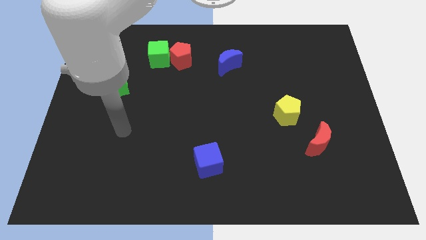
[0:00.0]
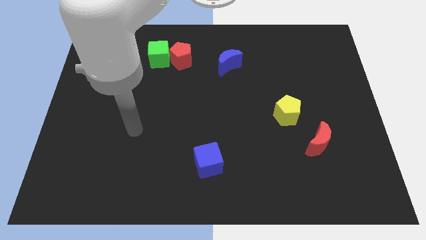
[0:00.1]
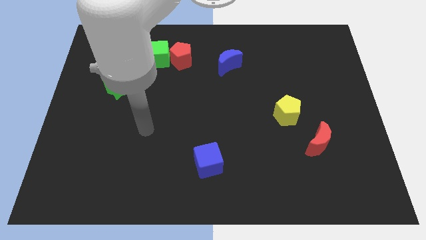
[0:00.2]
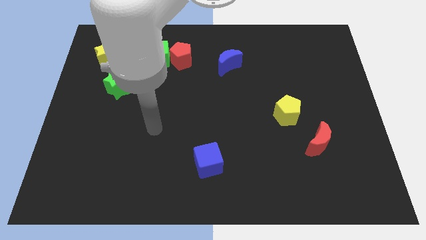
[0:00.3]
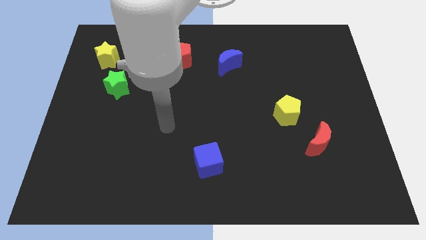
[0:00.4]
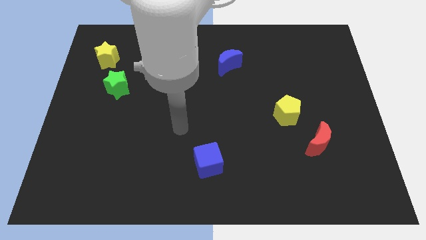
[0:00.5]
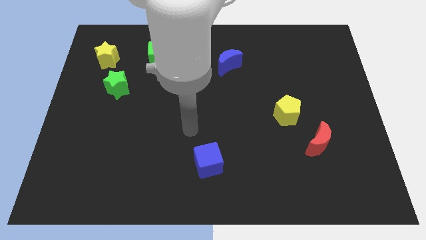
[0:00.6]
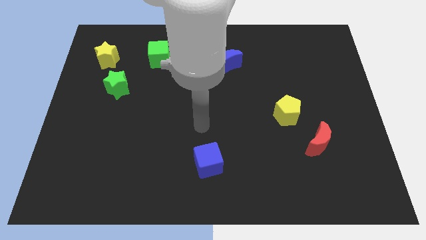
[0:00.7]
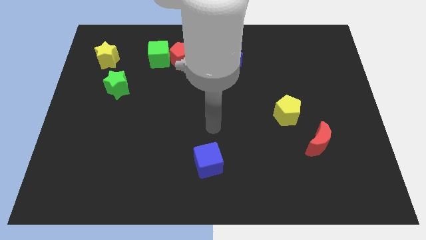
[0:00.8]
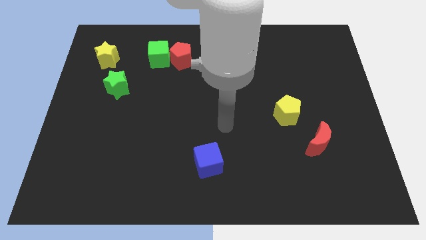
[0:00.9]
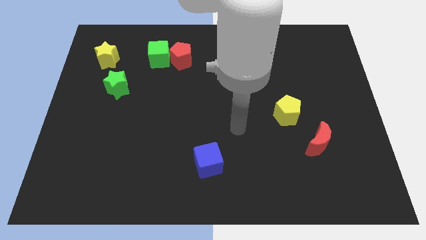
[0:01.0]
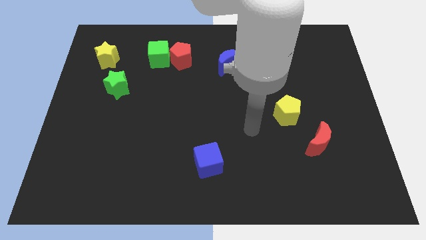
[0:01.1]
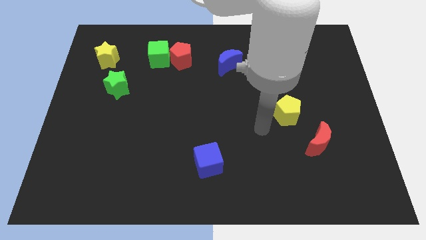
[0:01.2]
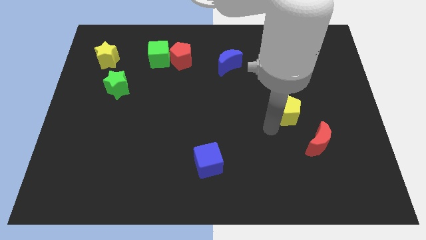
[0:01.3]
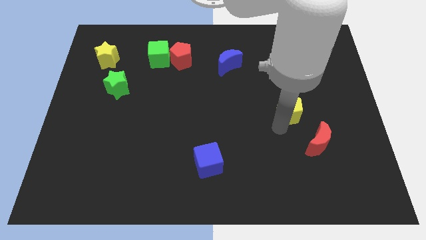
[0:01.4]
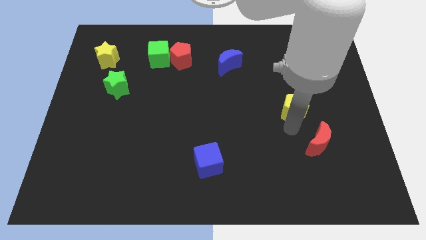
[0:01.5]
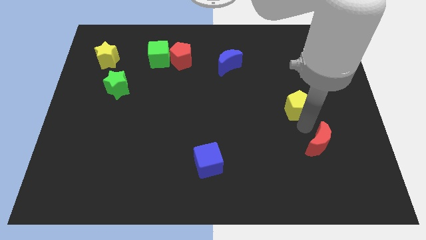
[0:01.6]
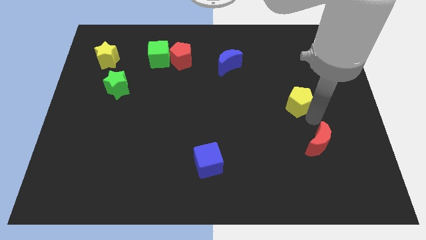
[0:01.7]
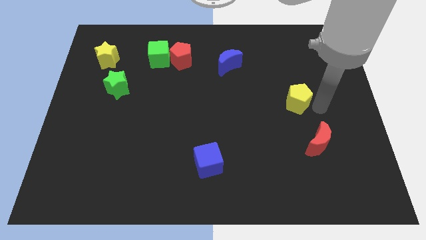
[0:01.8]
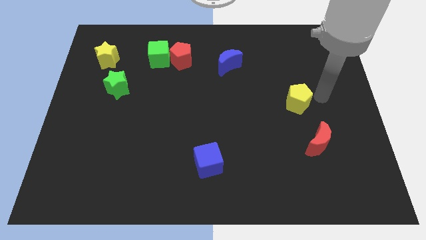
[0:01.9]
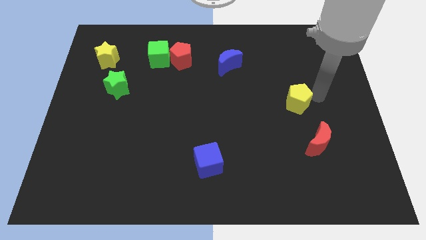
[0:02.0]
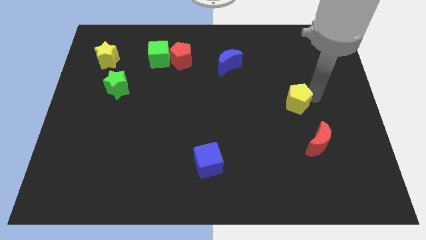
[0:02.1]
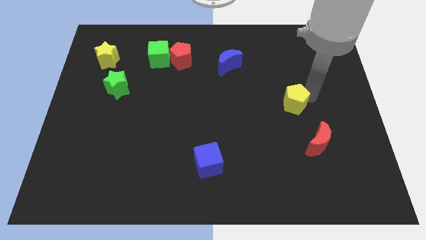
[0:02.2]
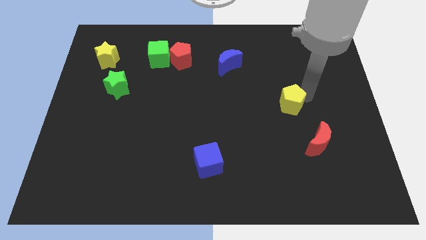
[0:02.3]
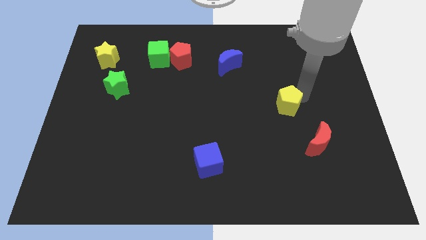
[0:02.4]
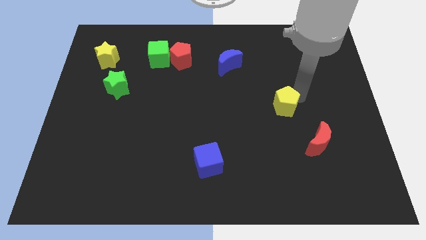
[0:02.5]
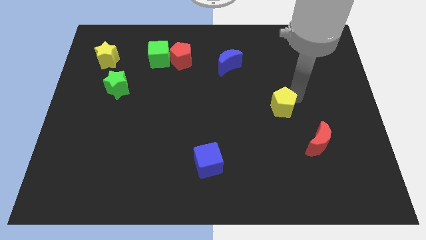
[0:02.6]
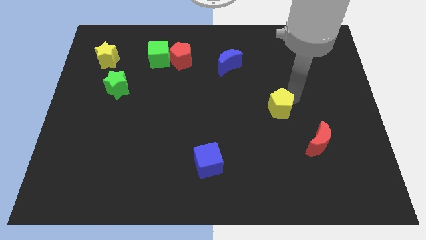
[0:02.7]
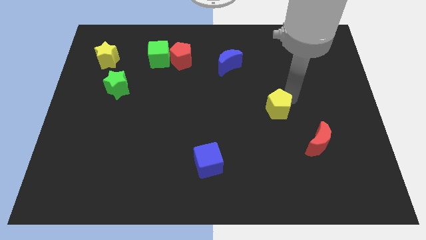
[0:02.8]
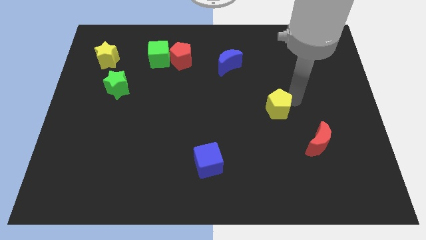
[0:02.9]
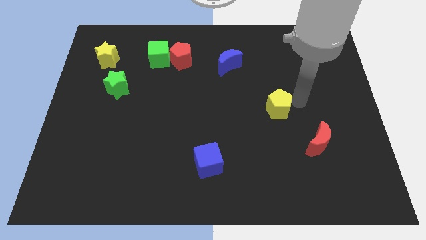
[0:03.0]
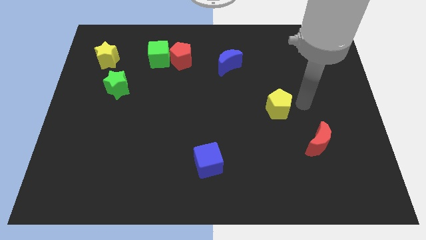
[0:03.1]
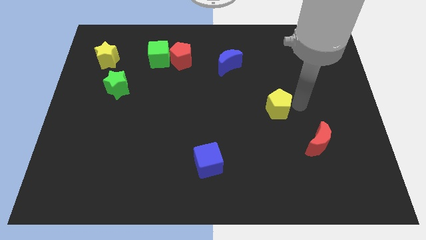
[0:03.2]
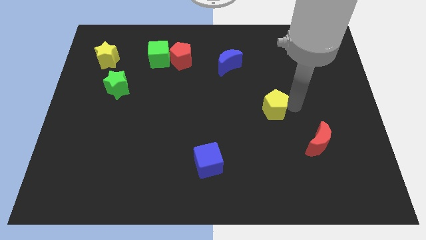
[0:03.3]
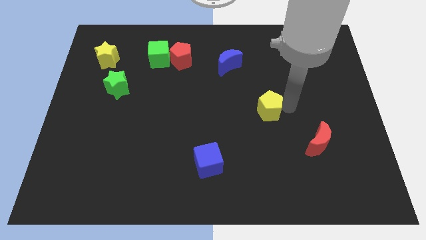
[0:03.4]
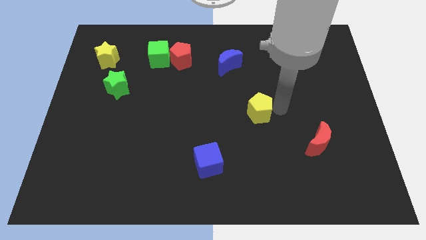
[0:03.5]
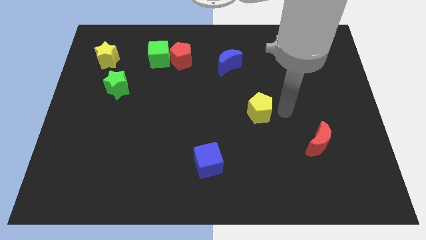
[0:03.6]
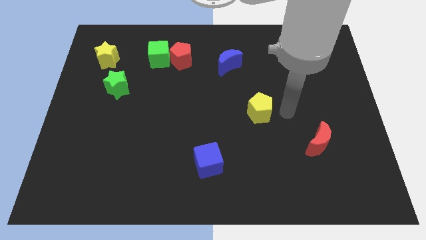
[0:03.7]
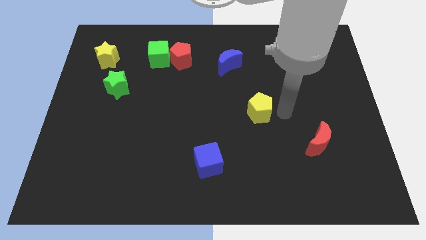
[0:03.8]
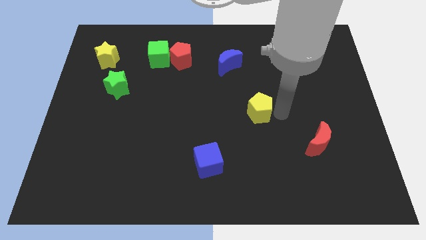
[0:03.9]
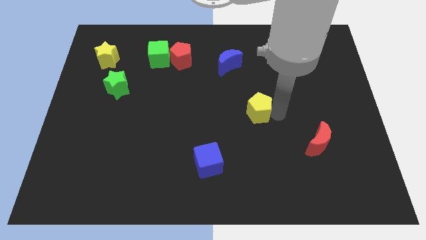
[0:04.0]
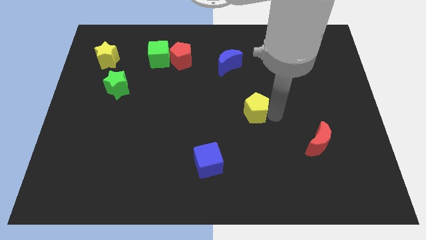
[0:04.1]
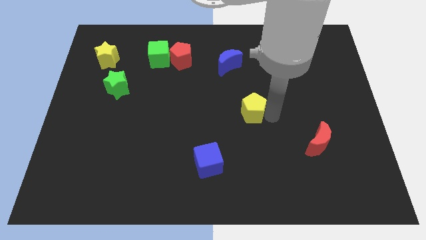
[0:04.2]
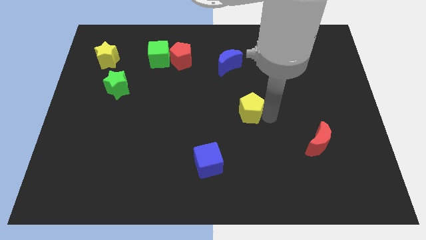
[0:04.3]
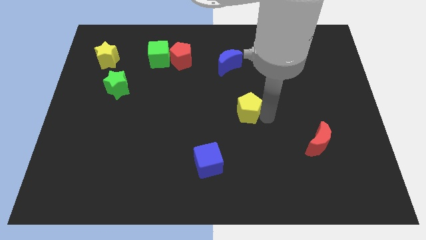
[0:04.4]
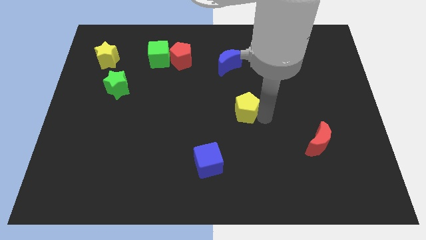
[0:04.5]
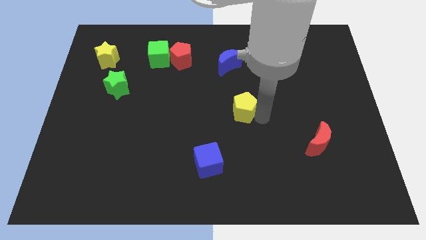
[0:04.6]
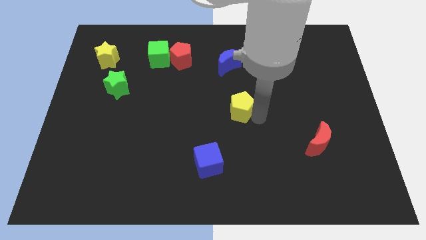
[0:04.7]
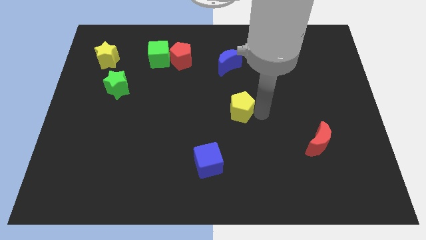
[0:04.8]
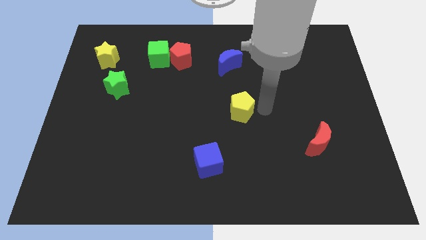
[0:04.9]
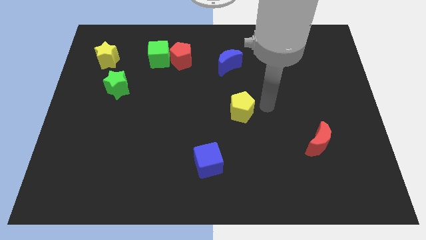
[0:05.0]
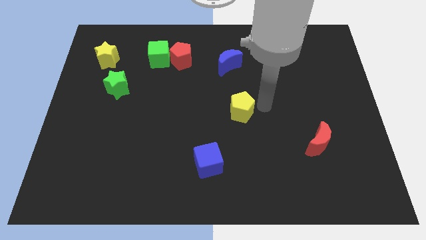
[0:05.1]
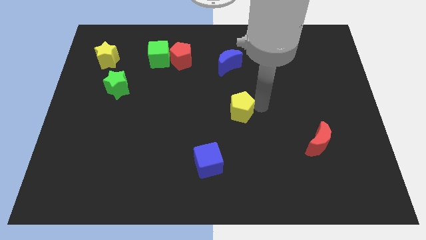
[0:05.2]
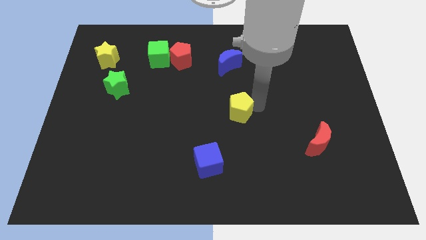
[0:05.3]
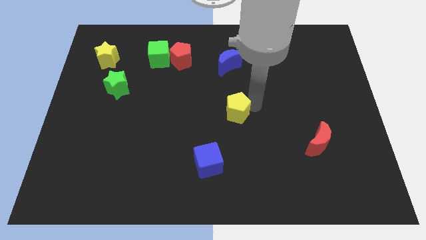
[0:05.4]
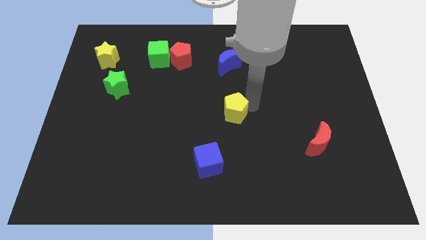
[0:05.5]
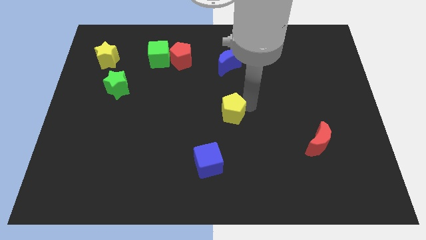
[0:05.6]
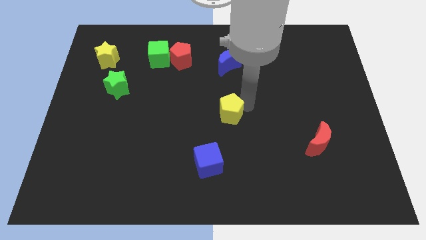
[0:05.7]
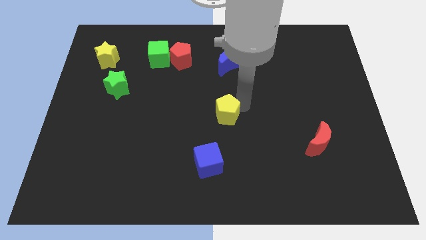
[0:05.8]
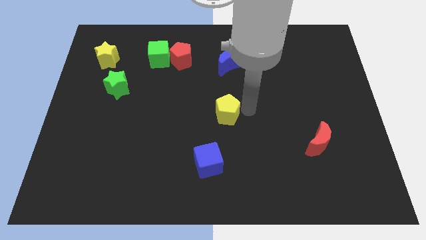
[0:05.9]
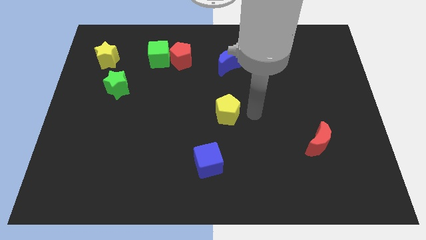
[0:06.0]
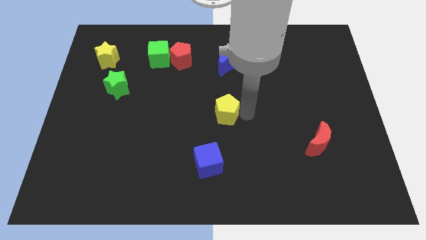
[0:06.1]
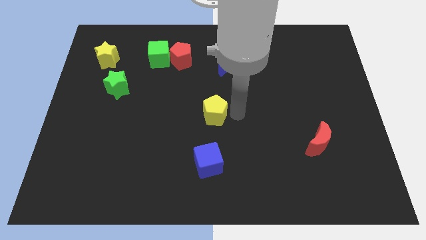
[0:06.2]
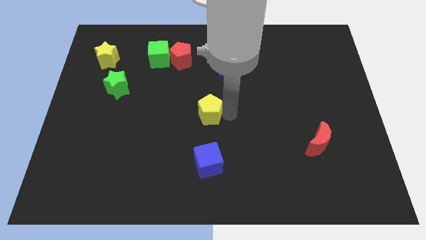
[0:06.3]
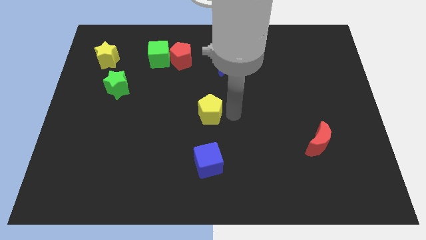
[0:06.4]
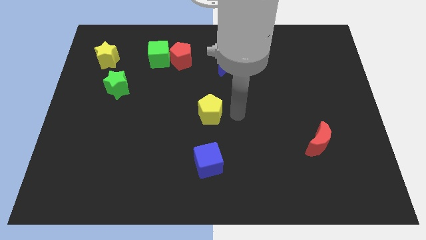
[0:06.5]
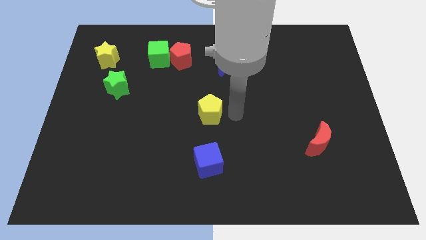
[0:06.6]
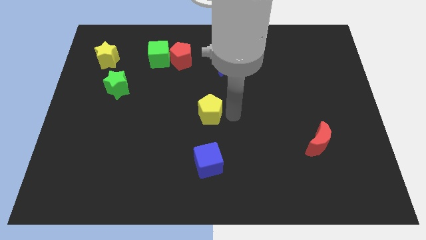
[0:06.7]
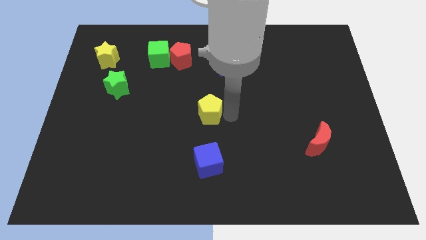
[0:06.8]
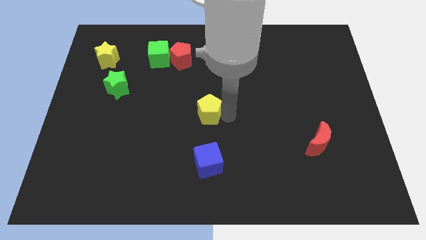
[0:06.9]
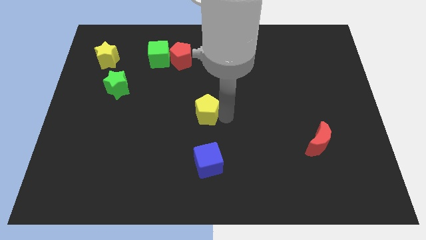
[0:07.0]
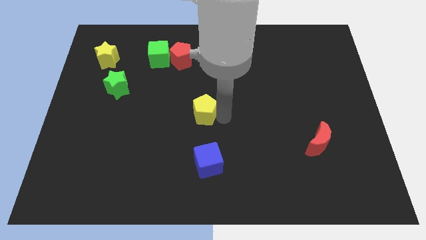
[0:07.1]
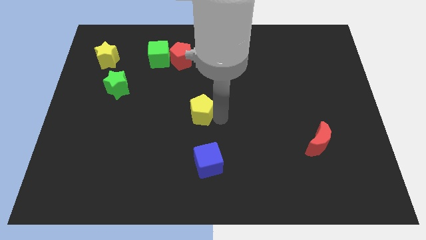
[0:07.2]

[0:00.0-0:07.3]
move the yellow pentagon left

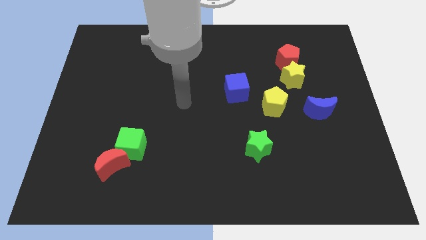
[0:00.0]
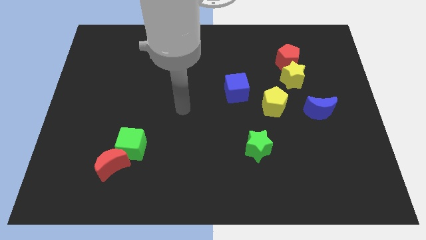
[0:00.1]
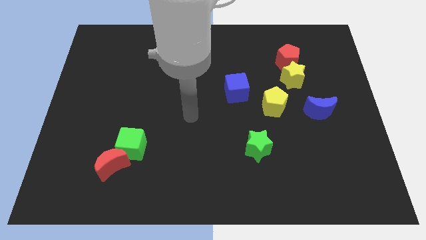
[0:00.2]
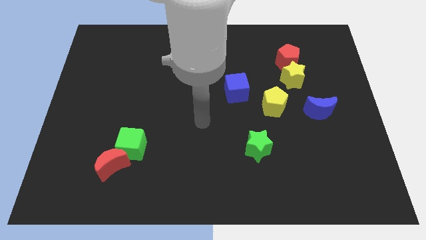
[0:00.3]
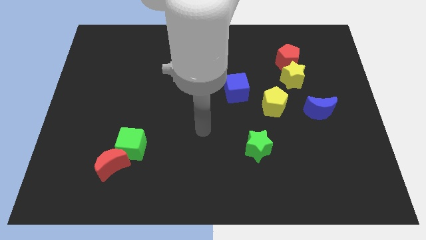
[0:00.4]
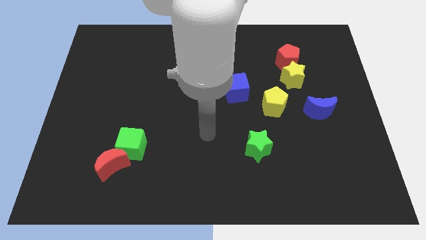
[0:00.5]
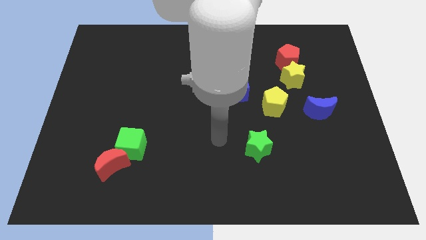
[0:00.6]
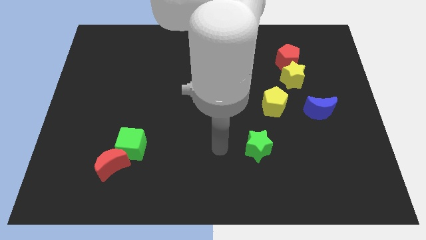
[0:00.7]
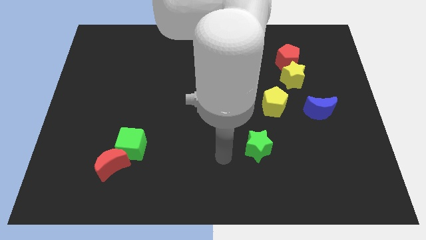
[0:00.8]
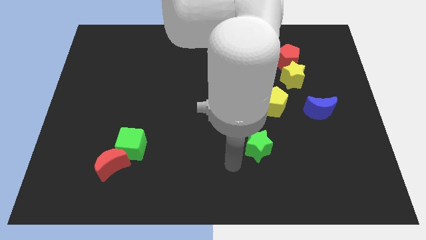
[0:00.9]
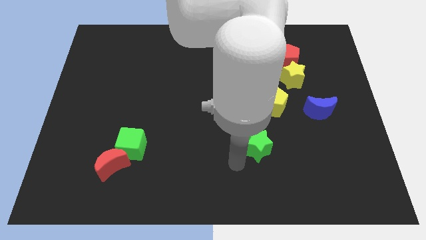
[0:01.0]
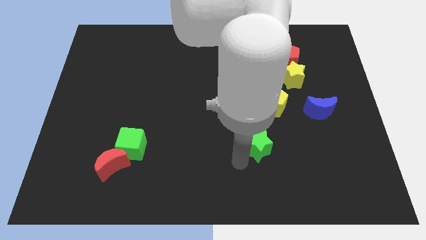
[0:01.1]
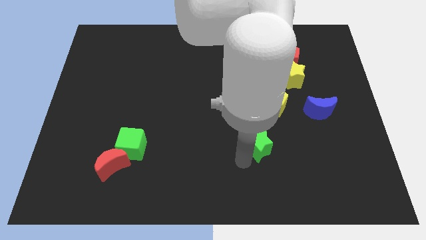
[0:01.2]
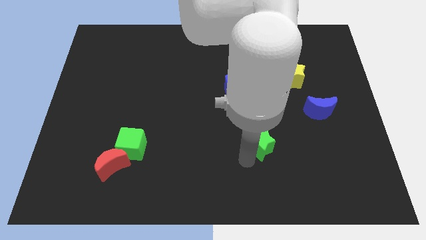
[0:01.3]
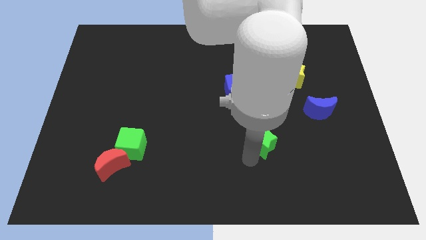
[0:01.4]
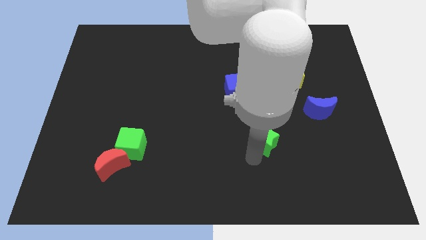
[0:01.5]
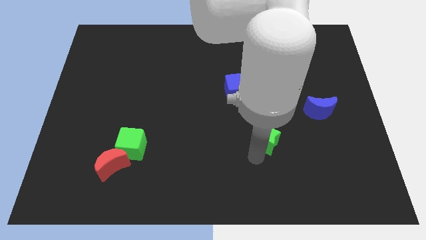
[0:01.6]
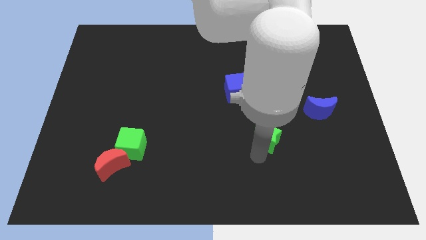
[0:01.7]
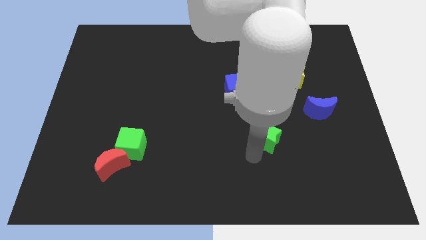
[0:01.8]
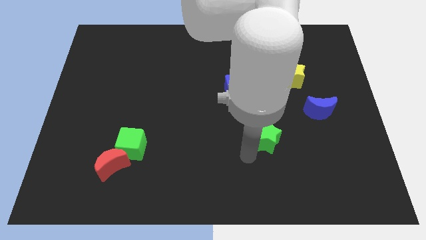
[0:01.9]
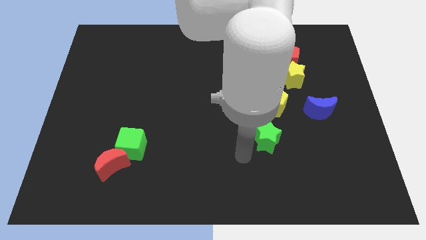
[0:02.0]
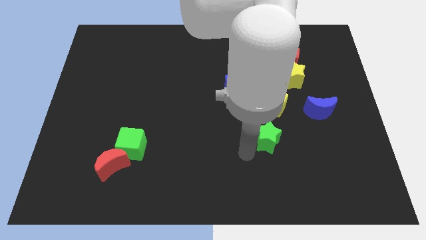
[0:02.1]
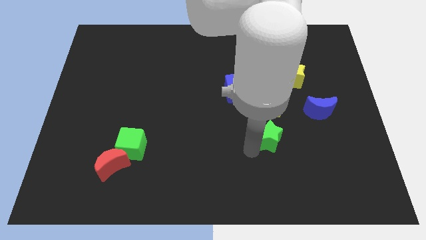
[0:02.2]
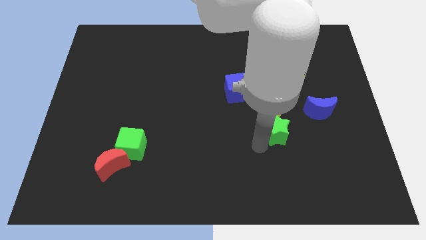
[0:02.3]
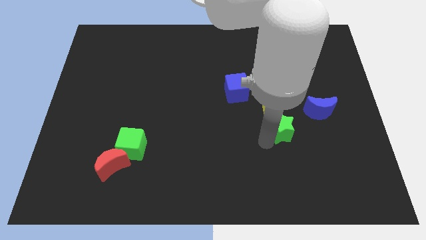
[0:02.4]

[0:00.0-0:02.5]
slightly move the green star diagonally upwards and right
